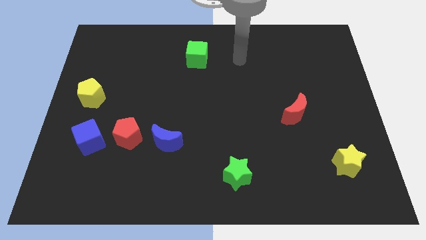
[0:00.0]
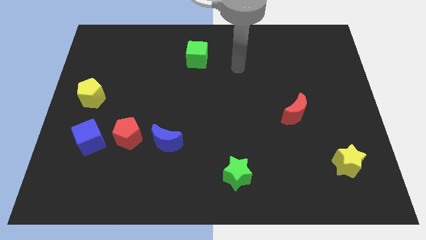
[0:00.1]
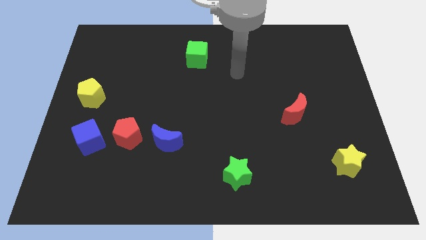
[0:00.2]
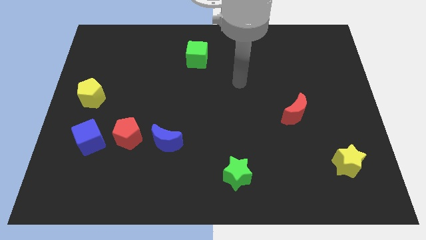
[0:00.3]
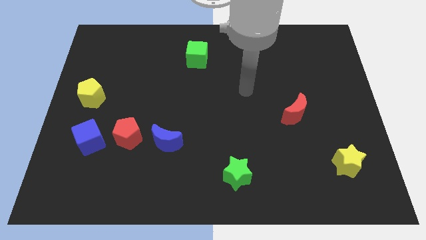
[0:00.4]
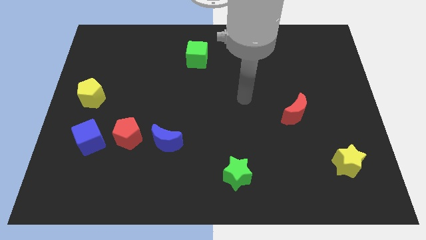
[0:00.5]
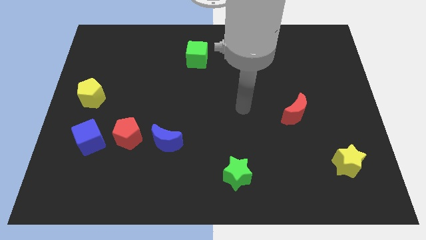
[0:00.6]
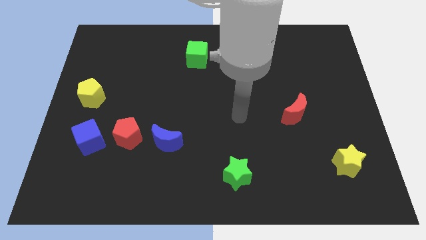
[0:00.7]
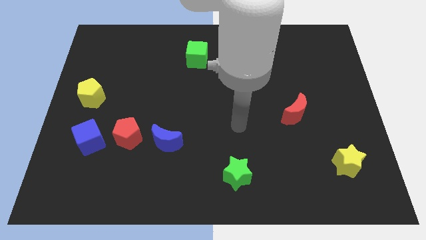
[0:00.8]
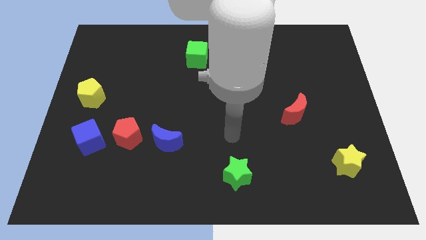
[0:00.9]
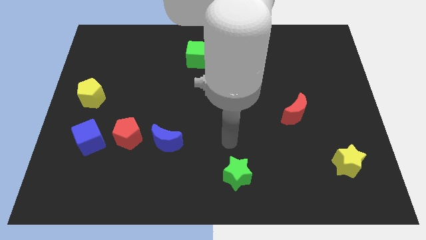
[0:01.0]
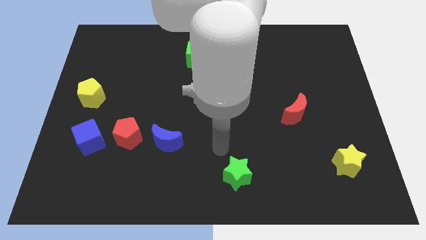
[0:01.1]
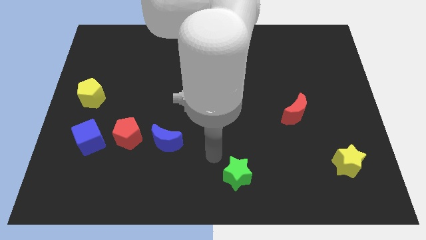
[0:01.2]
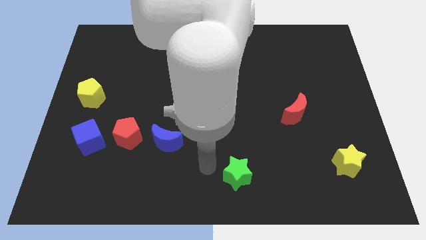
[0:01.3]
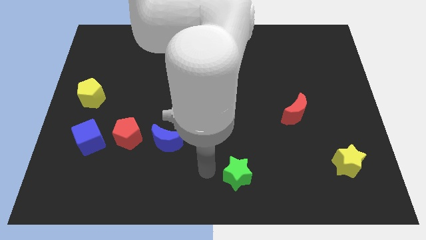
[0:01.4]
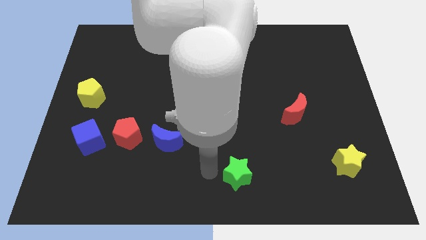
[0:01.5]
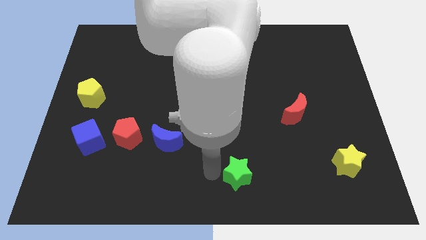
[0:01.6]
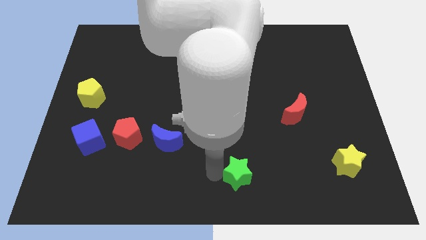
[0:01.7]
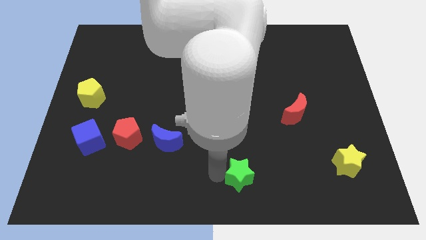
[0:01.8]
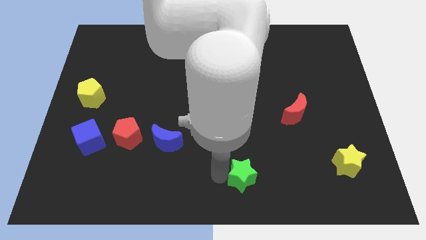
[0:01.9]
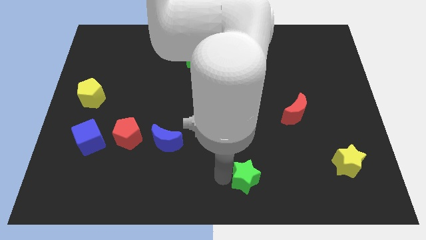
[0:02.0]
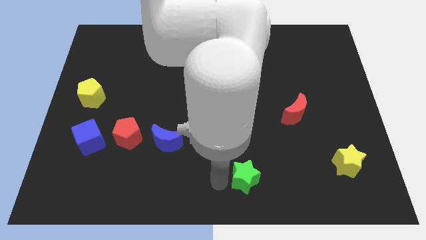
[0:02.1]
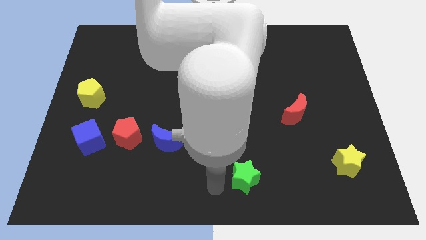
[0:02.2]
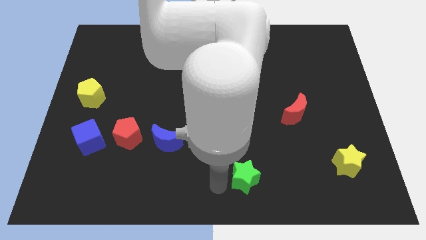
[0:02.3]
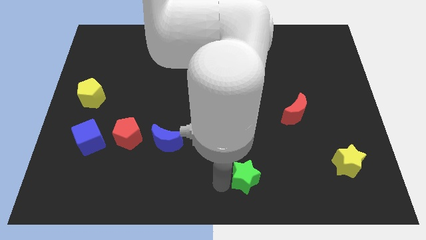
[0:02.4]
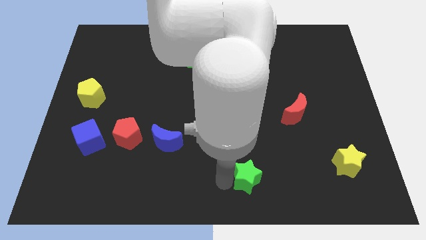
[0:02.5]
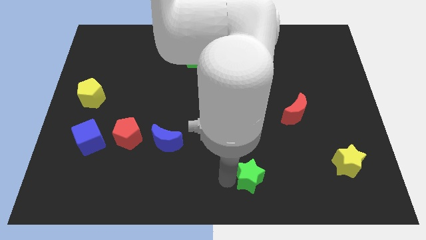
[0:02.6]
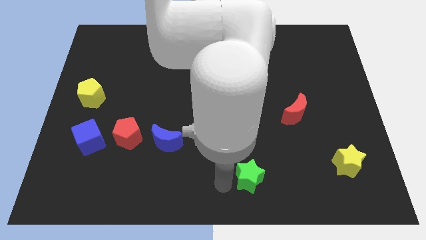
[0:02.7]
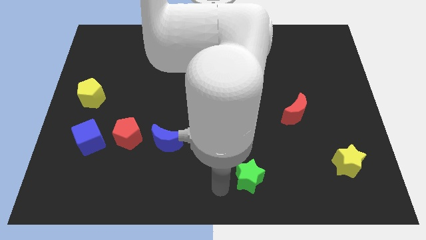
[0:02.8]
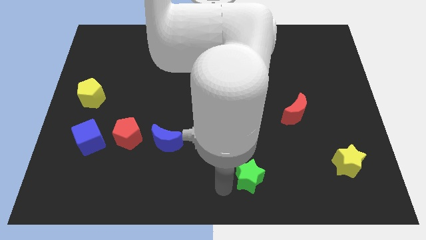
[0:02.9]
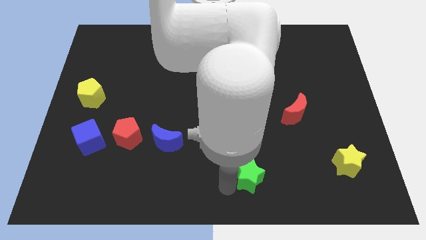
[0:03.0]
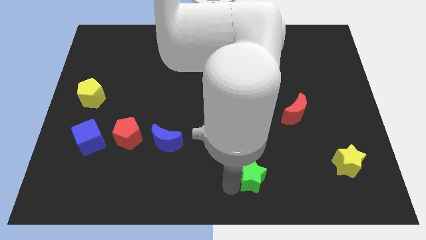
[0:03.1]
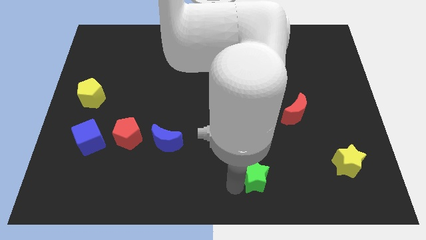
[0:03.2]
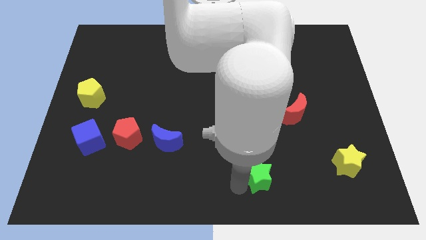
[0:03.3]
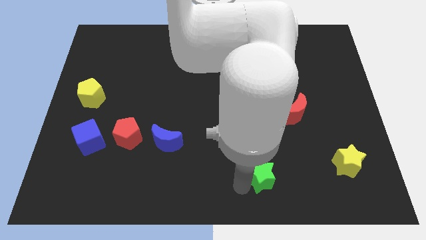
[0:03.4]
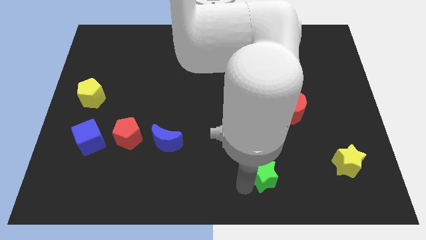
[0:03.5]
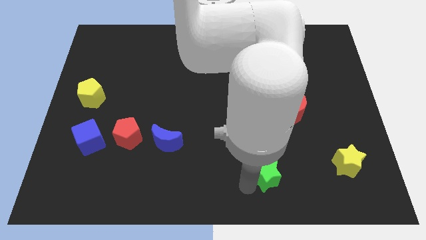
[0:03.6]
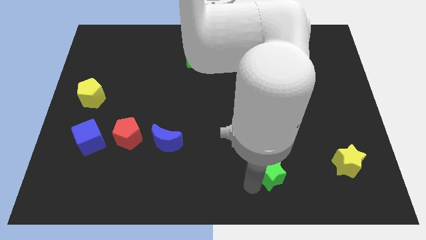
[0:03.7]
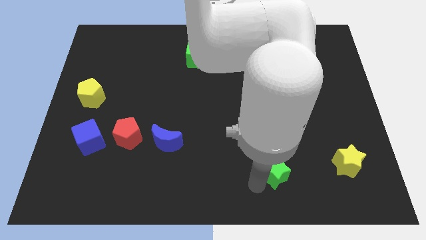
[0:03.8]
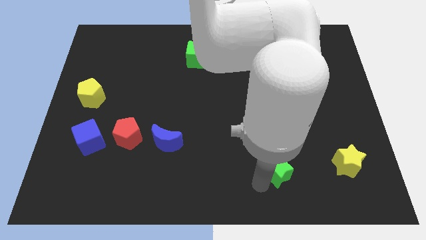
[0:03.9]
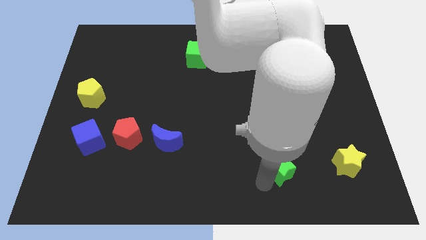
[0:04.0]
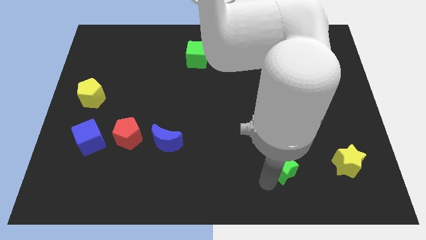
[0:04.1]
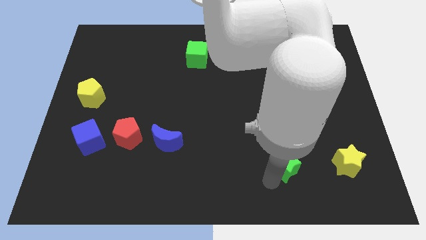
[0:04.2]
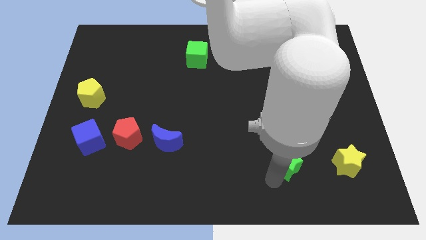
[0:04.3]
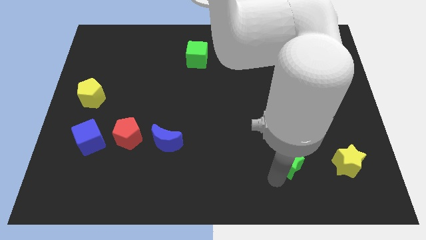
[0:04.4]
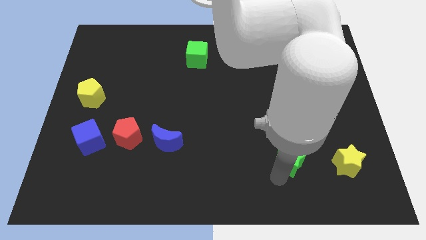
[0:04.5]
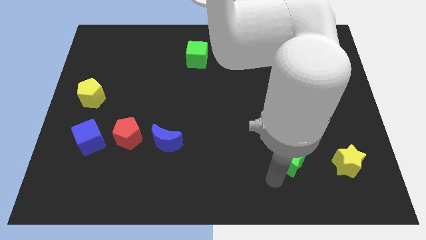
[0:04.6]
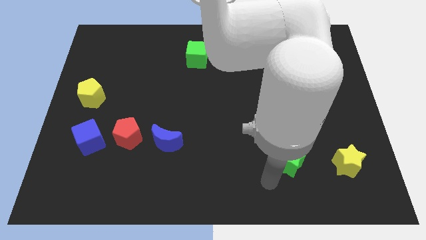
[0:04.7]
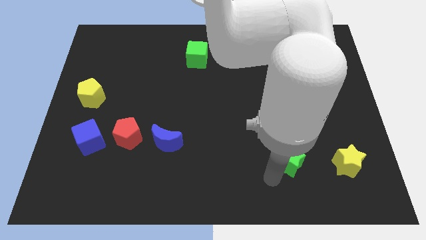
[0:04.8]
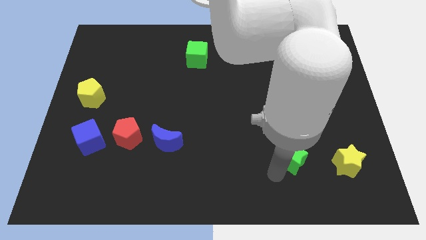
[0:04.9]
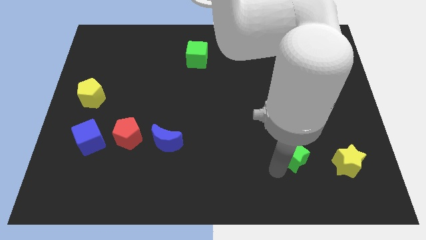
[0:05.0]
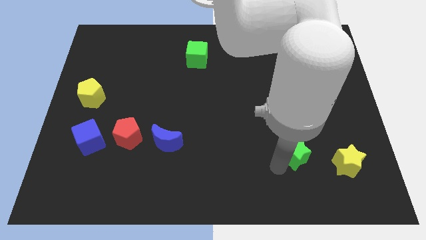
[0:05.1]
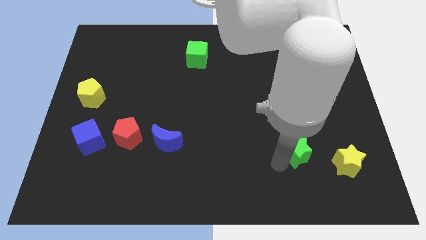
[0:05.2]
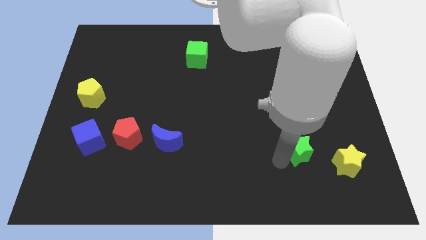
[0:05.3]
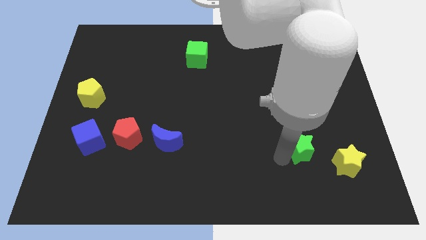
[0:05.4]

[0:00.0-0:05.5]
push the green star to the top left of the yellow star

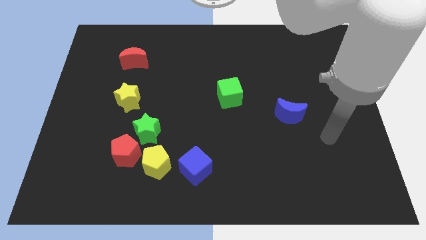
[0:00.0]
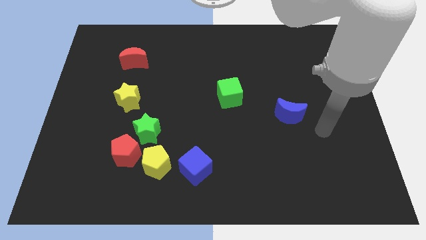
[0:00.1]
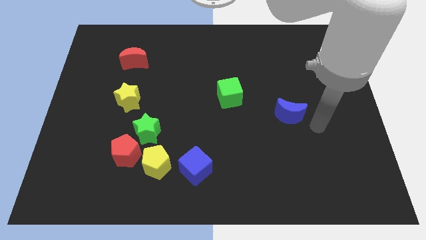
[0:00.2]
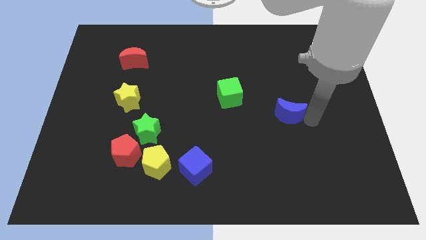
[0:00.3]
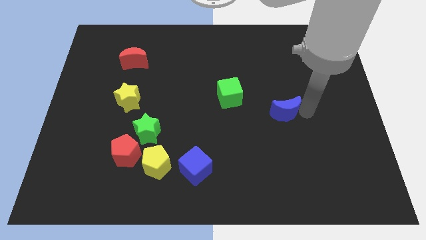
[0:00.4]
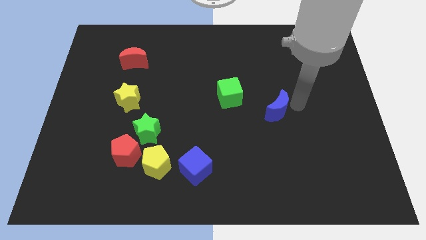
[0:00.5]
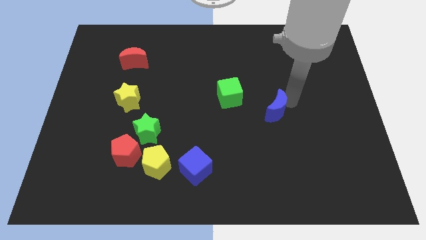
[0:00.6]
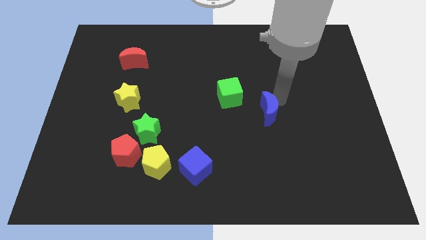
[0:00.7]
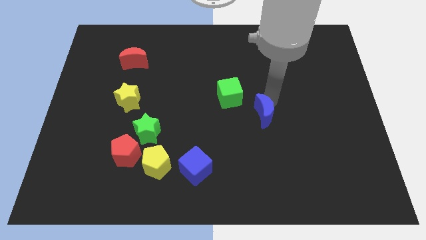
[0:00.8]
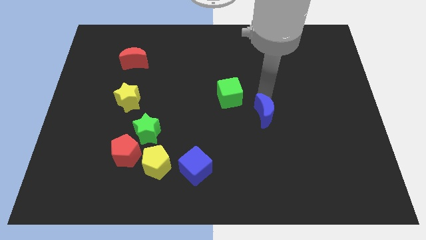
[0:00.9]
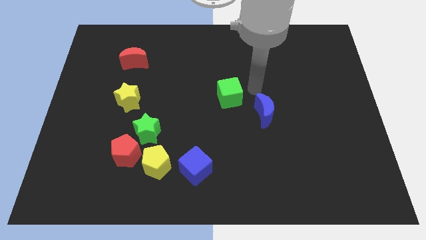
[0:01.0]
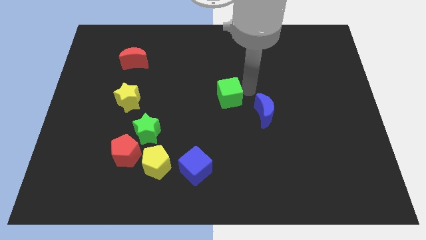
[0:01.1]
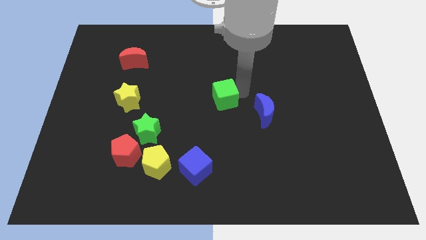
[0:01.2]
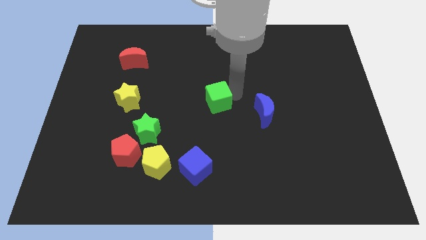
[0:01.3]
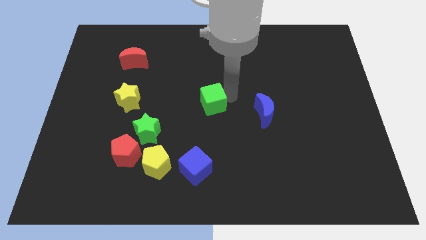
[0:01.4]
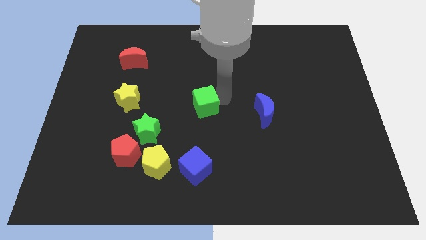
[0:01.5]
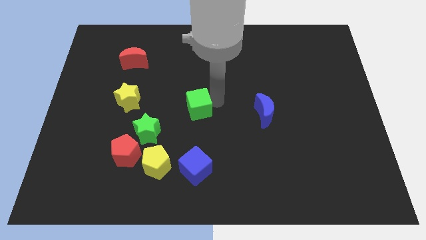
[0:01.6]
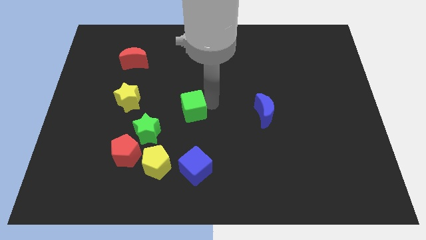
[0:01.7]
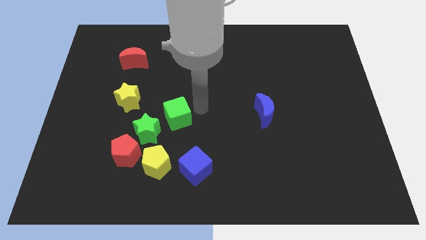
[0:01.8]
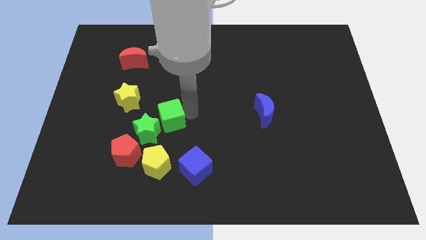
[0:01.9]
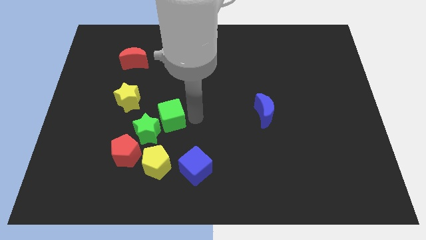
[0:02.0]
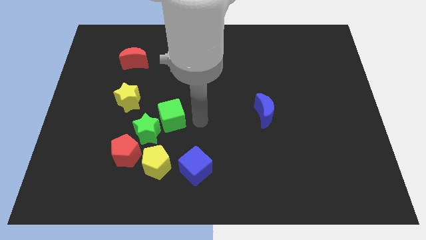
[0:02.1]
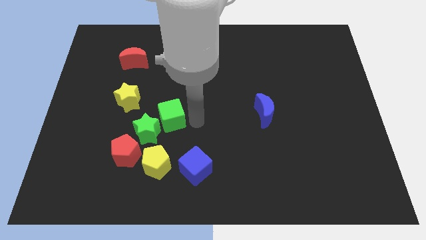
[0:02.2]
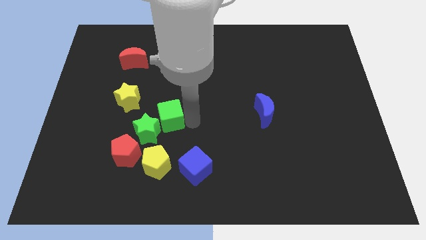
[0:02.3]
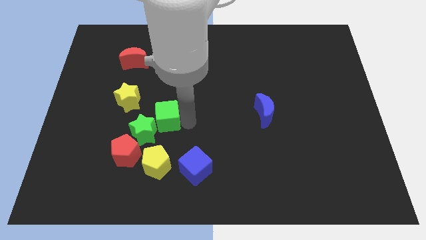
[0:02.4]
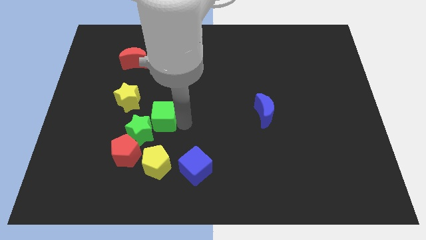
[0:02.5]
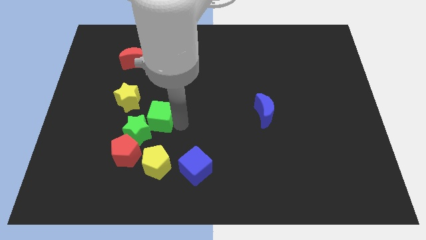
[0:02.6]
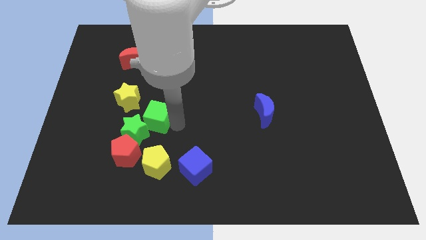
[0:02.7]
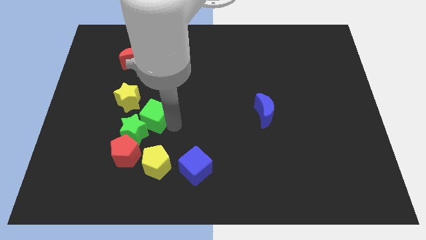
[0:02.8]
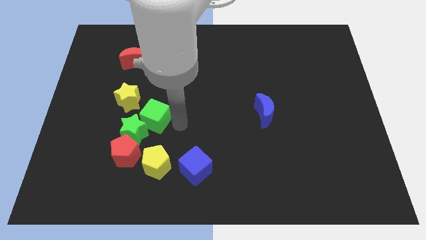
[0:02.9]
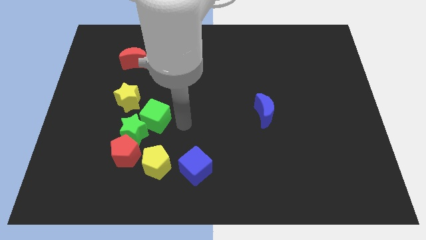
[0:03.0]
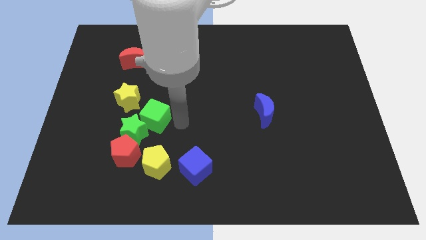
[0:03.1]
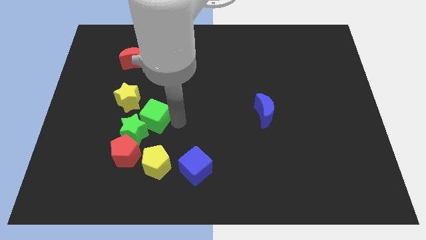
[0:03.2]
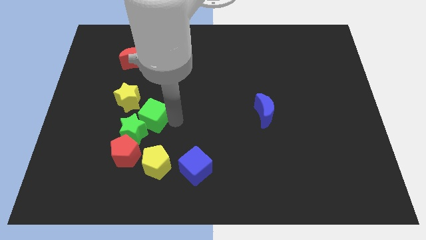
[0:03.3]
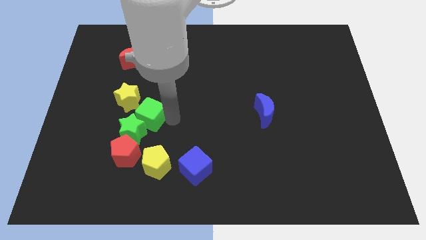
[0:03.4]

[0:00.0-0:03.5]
push the green cube above the red pentagon
